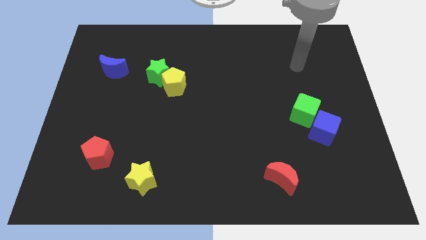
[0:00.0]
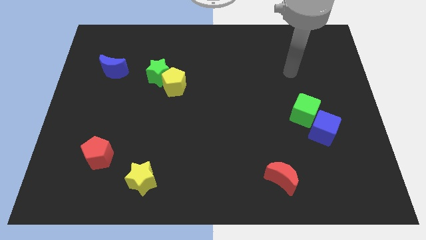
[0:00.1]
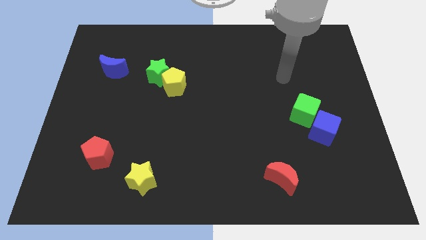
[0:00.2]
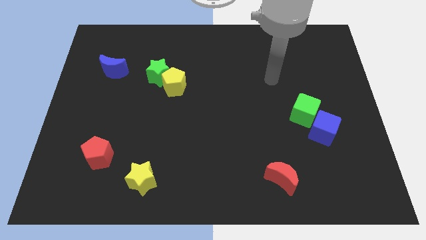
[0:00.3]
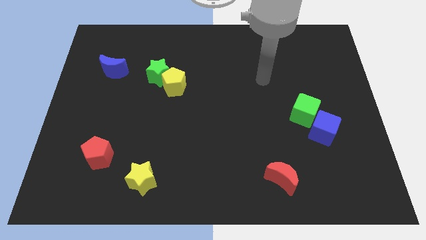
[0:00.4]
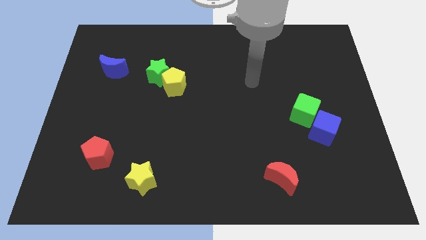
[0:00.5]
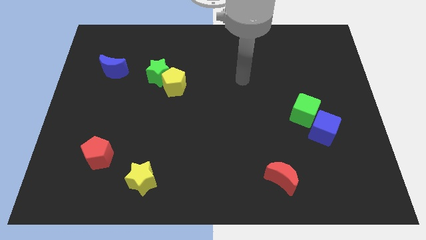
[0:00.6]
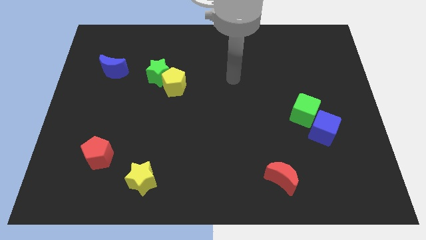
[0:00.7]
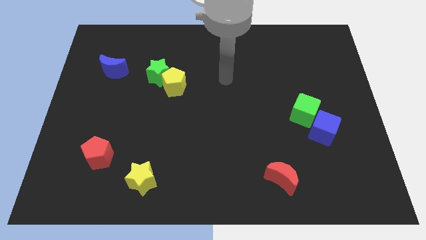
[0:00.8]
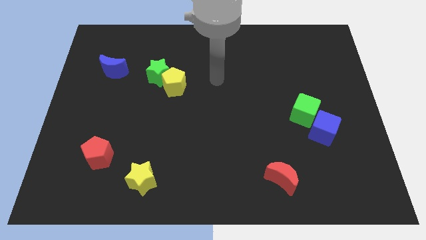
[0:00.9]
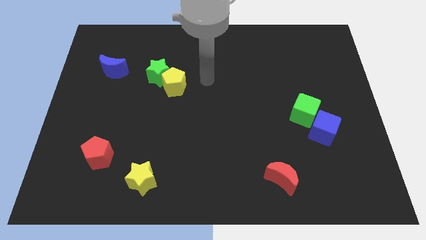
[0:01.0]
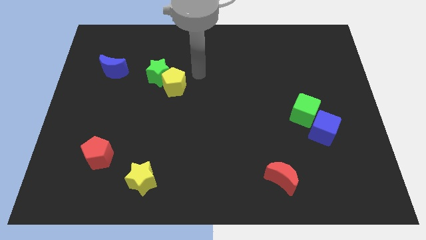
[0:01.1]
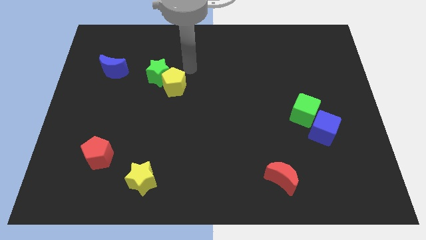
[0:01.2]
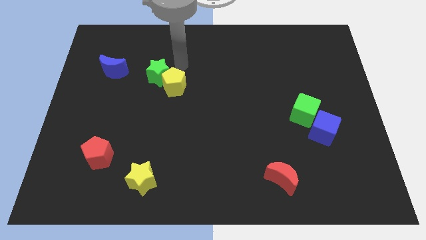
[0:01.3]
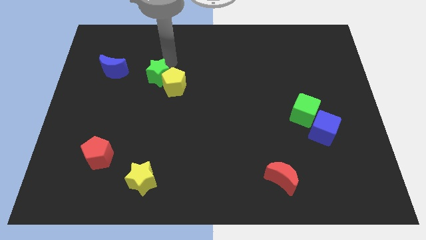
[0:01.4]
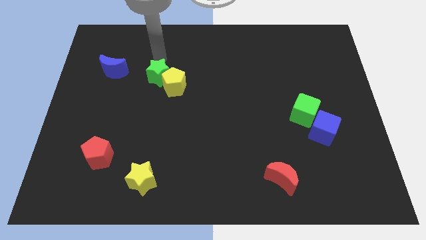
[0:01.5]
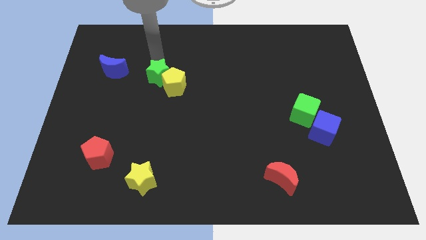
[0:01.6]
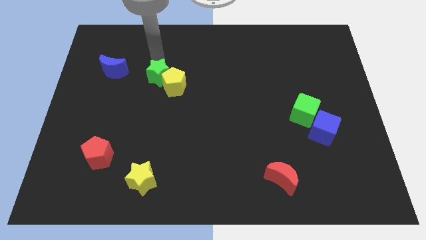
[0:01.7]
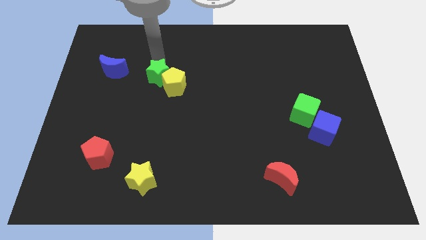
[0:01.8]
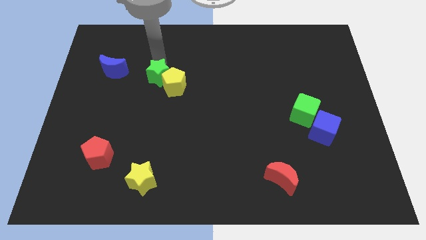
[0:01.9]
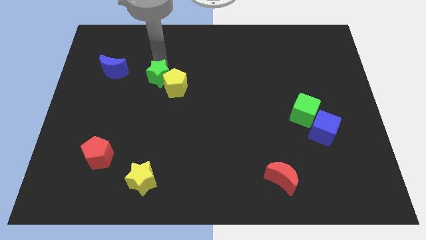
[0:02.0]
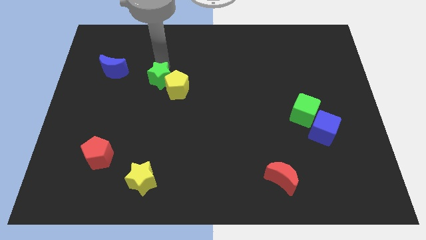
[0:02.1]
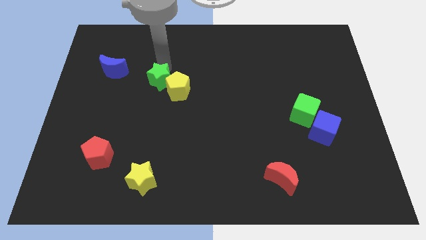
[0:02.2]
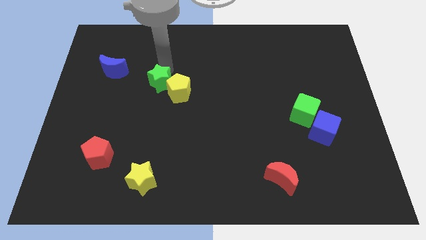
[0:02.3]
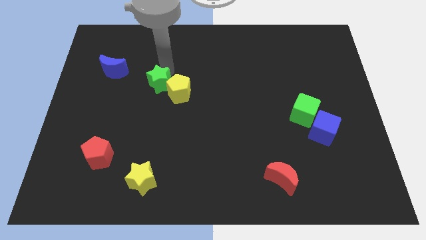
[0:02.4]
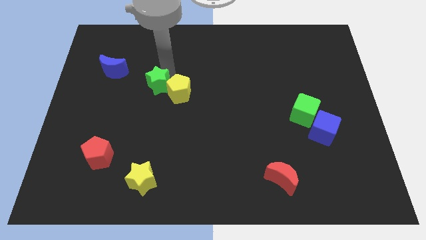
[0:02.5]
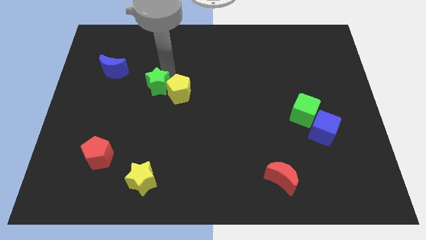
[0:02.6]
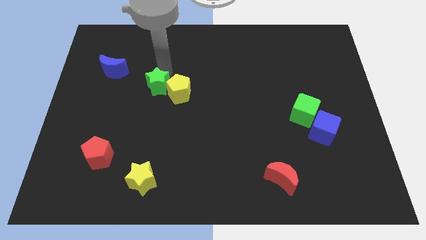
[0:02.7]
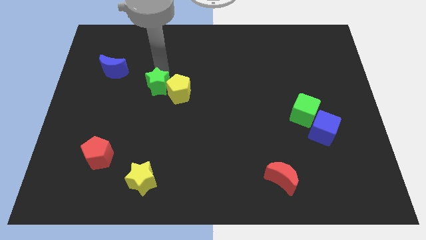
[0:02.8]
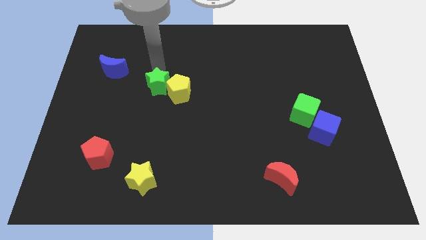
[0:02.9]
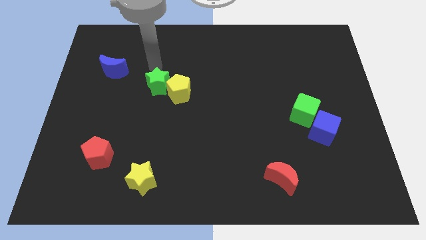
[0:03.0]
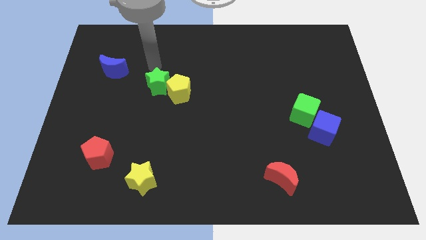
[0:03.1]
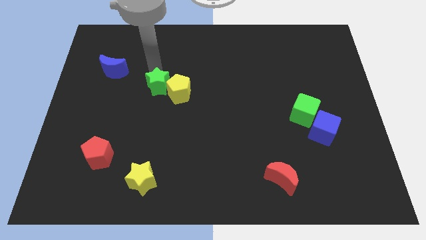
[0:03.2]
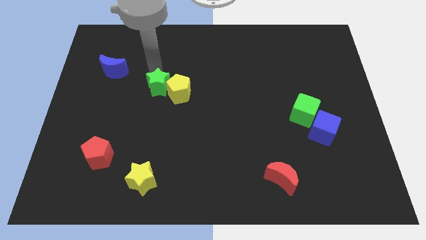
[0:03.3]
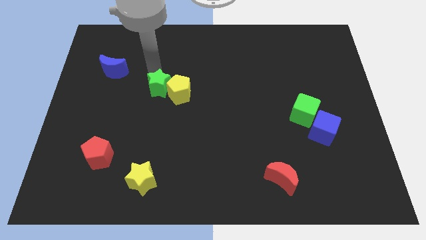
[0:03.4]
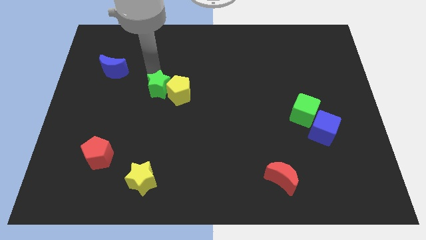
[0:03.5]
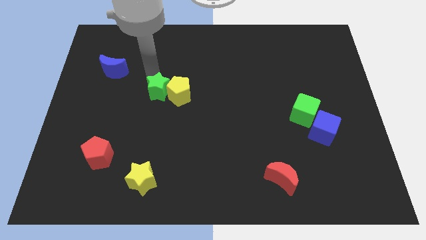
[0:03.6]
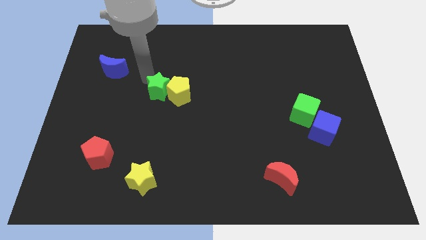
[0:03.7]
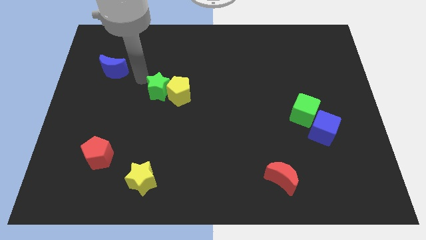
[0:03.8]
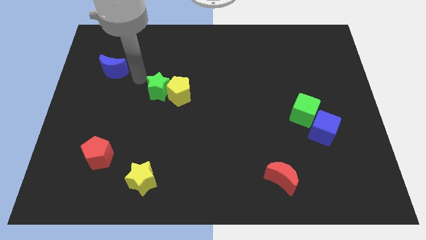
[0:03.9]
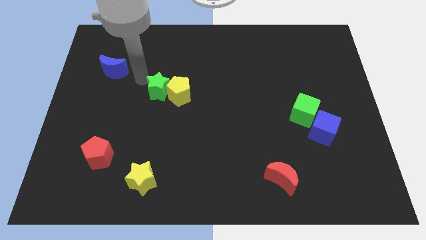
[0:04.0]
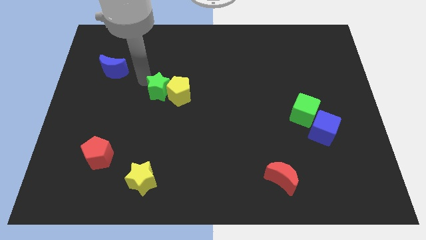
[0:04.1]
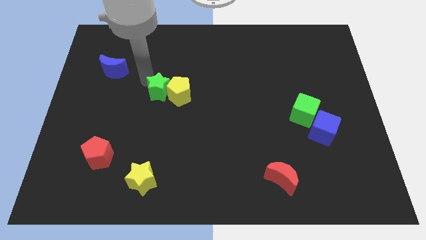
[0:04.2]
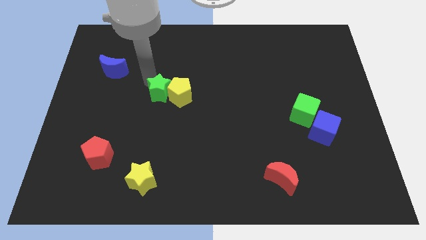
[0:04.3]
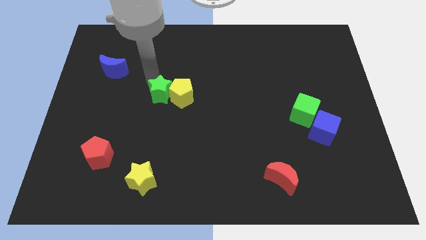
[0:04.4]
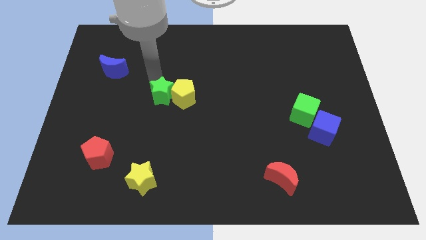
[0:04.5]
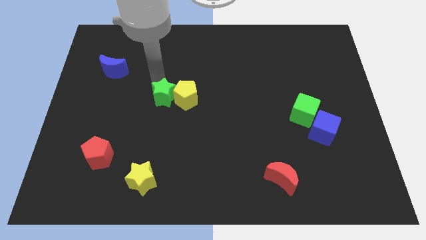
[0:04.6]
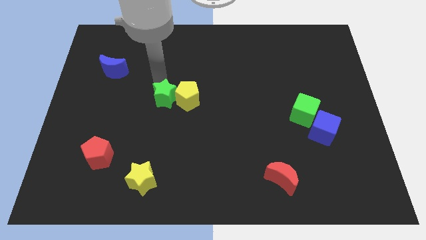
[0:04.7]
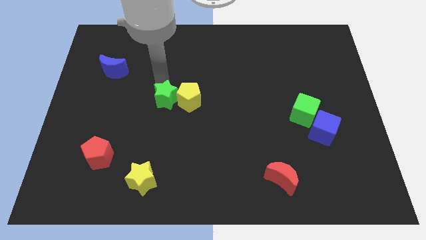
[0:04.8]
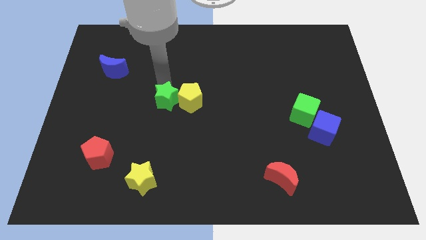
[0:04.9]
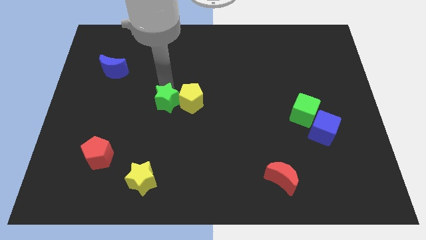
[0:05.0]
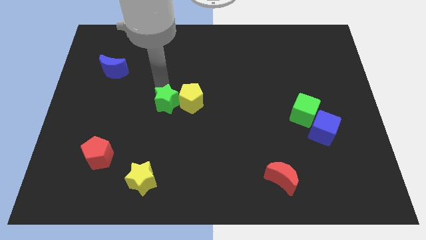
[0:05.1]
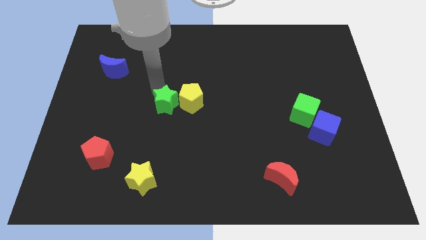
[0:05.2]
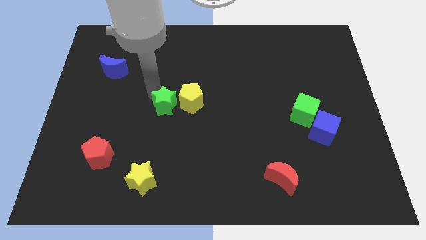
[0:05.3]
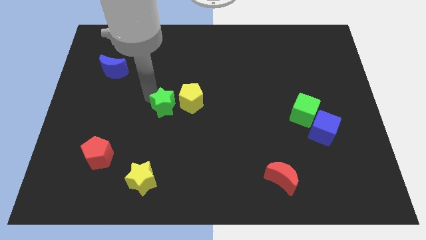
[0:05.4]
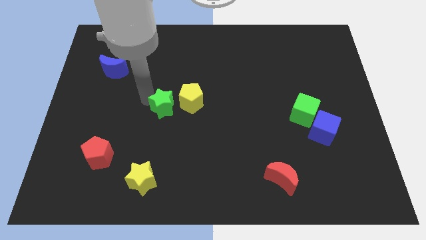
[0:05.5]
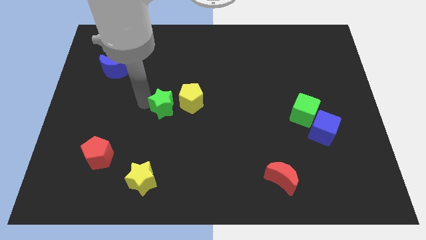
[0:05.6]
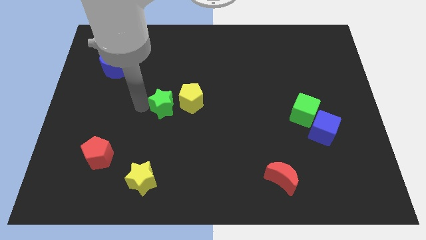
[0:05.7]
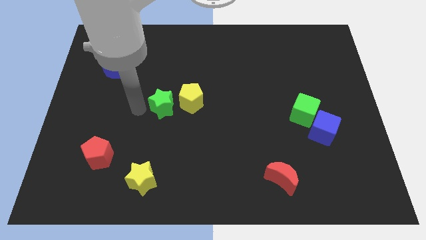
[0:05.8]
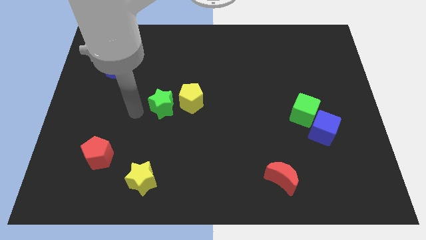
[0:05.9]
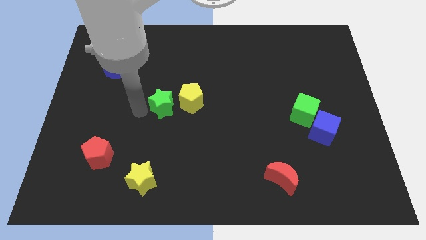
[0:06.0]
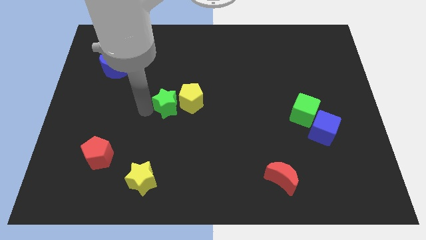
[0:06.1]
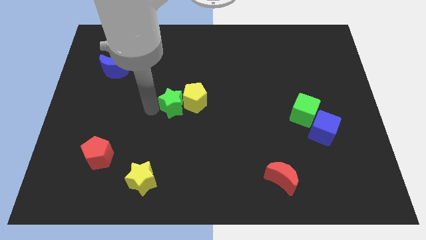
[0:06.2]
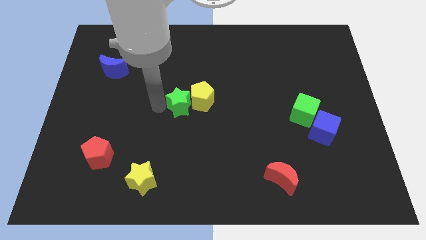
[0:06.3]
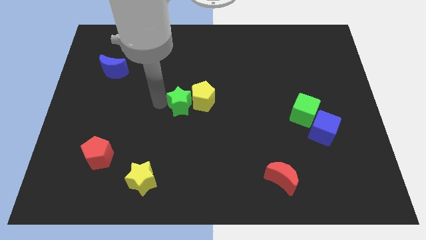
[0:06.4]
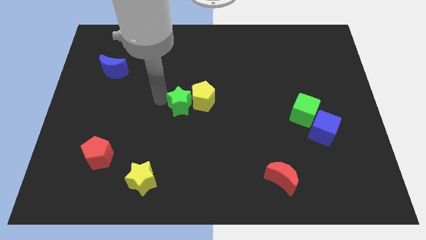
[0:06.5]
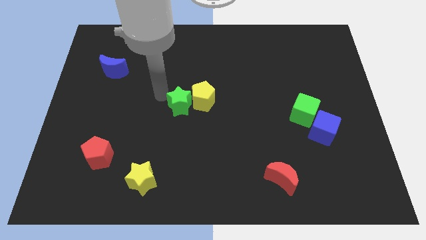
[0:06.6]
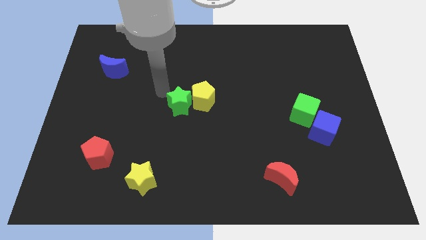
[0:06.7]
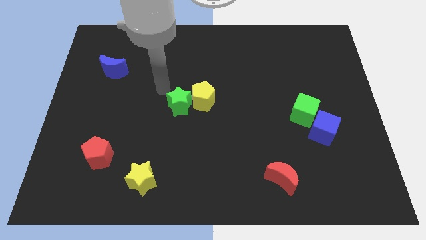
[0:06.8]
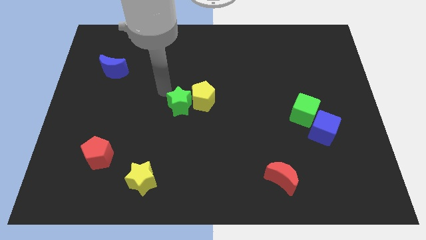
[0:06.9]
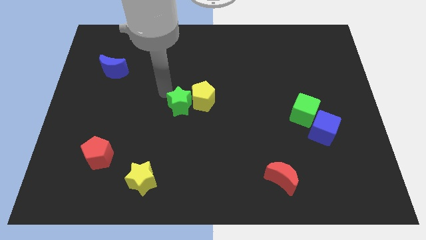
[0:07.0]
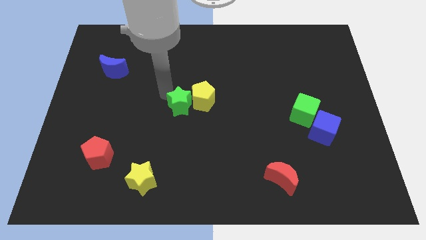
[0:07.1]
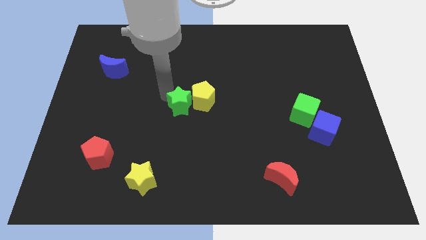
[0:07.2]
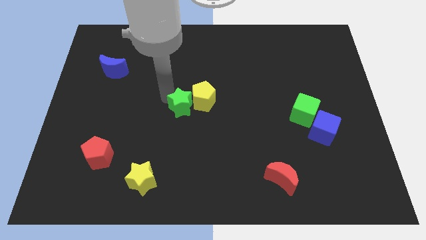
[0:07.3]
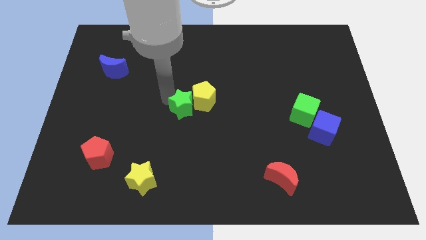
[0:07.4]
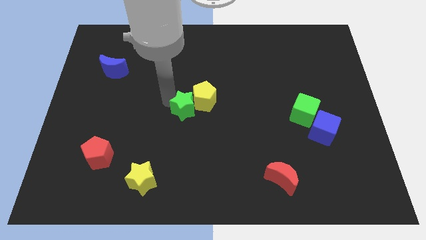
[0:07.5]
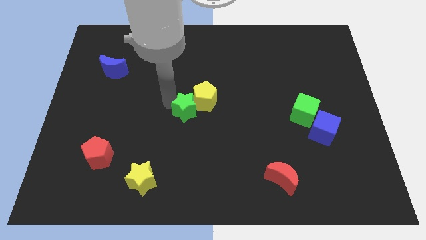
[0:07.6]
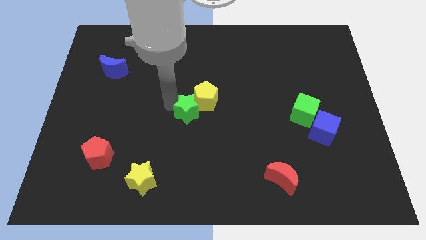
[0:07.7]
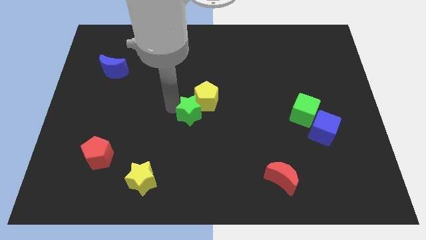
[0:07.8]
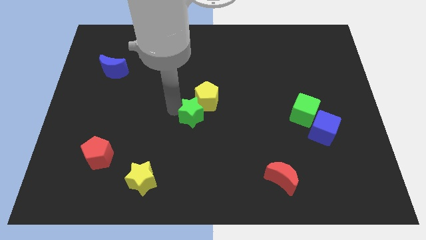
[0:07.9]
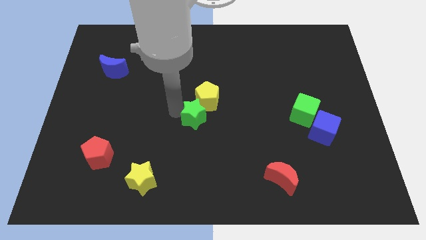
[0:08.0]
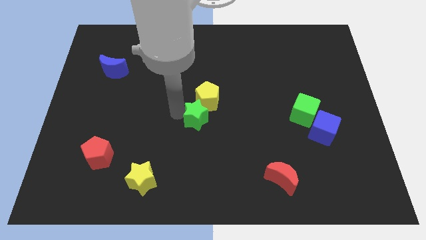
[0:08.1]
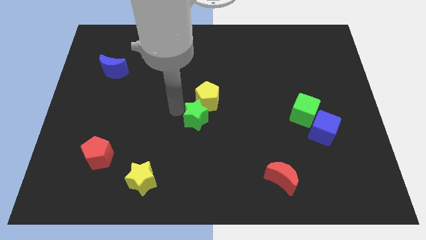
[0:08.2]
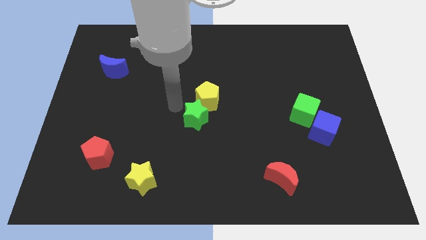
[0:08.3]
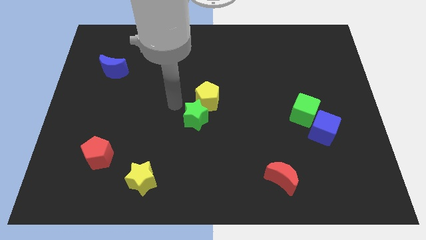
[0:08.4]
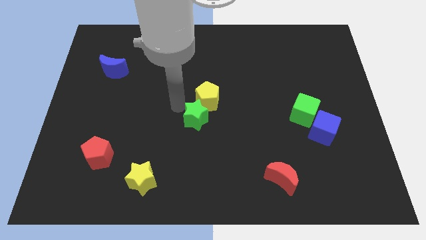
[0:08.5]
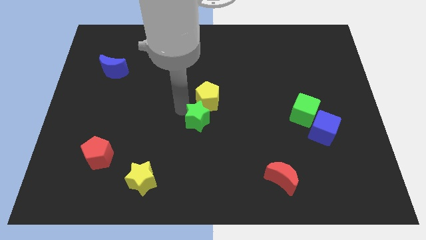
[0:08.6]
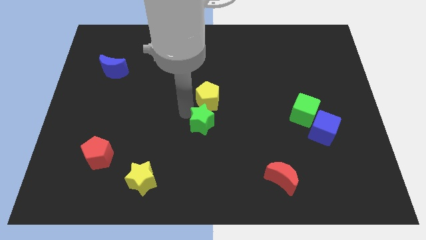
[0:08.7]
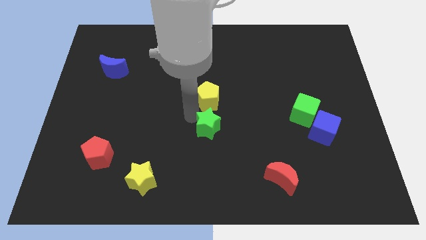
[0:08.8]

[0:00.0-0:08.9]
move the green star down and to the right
